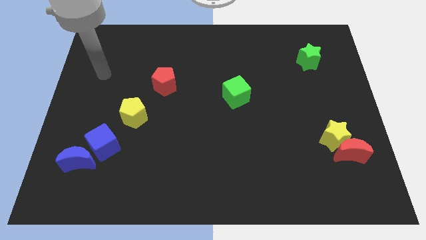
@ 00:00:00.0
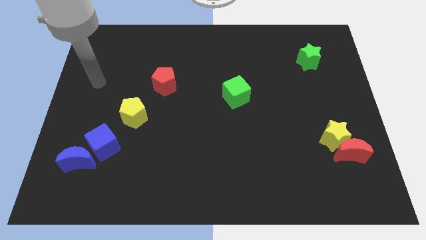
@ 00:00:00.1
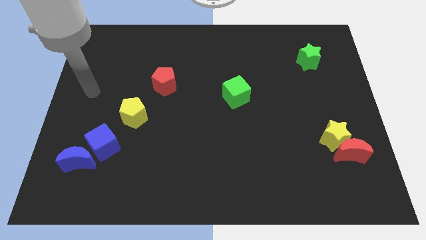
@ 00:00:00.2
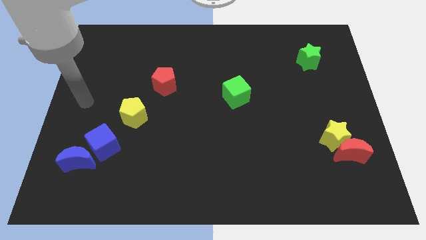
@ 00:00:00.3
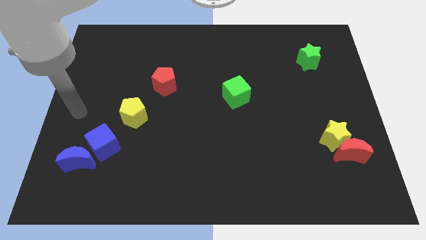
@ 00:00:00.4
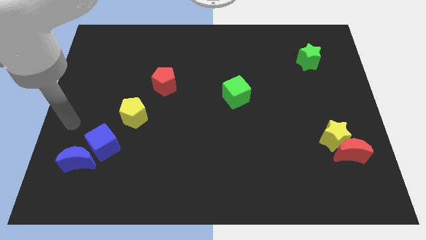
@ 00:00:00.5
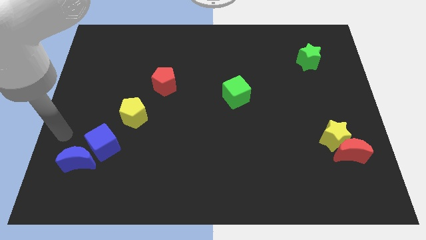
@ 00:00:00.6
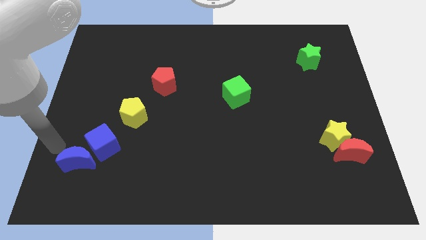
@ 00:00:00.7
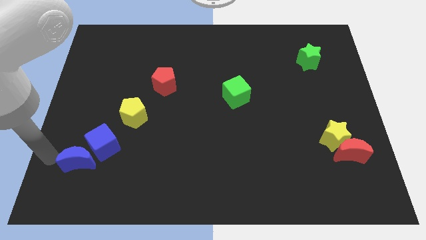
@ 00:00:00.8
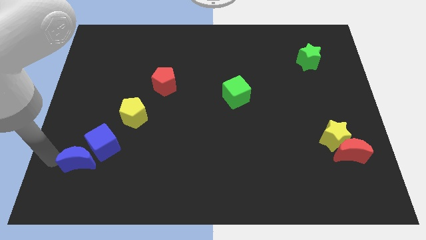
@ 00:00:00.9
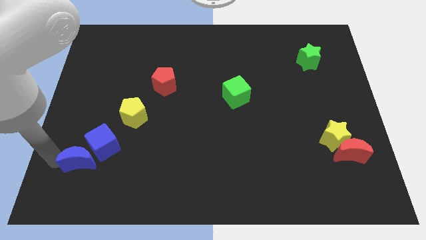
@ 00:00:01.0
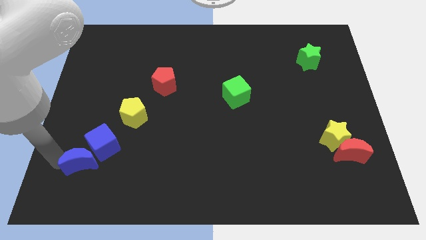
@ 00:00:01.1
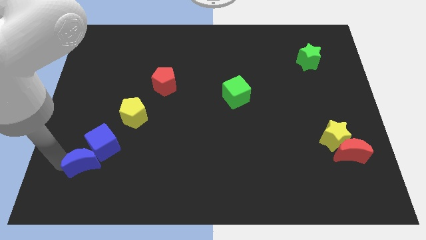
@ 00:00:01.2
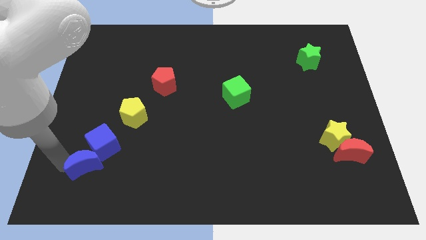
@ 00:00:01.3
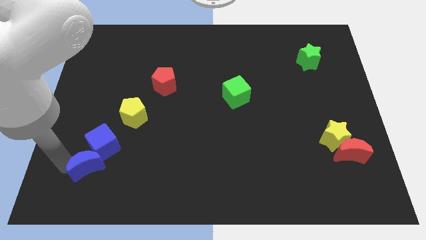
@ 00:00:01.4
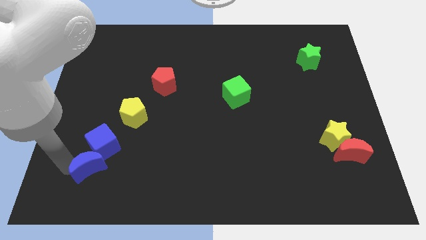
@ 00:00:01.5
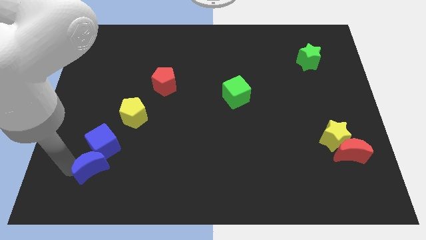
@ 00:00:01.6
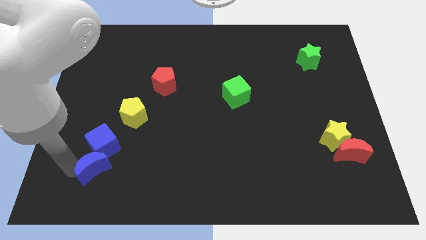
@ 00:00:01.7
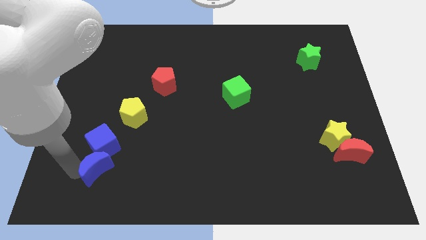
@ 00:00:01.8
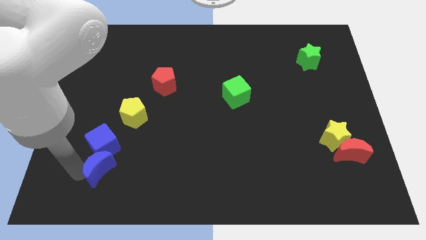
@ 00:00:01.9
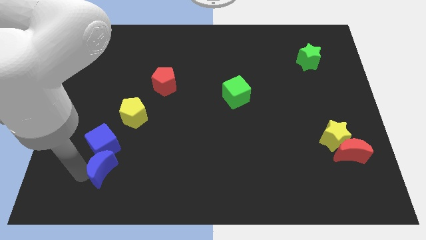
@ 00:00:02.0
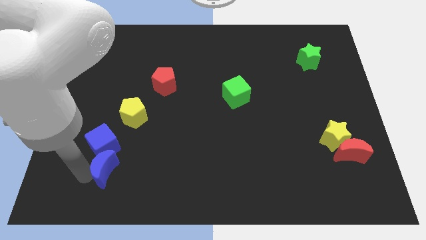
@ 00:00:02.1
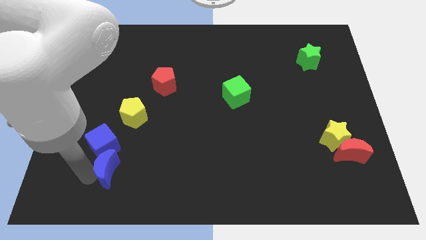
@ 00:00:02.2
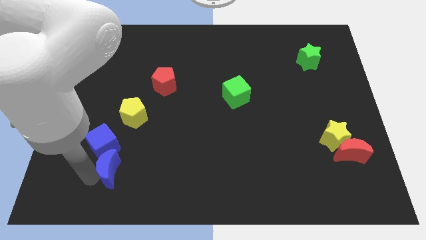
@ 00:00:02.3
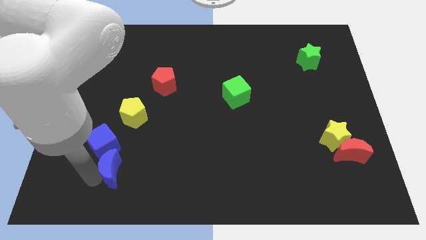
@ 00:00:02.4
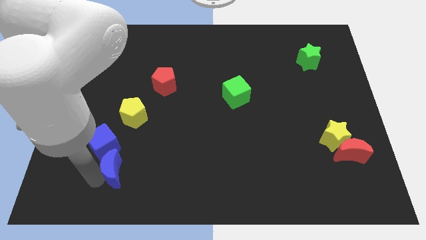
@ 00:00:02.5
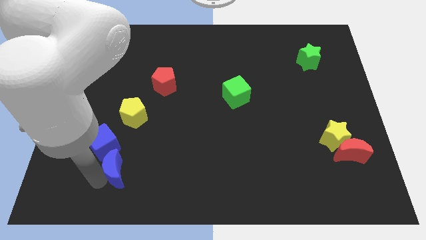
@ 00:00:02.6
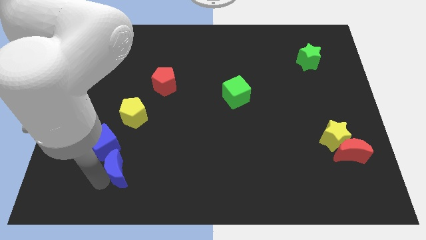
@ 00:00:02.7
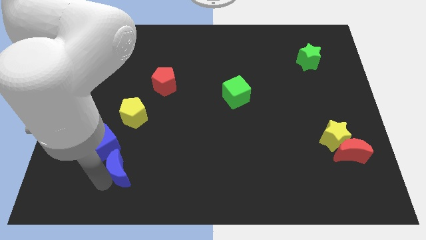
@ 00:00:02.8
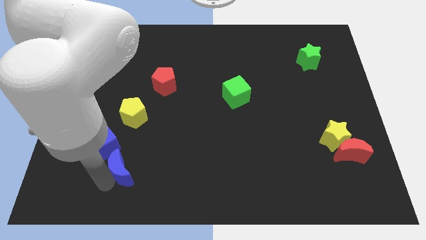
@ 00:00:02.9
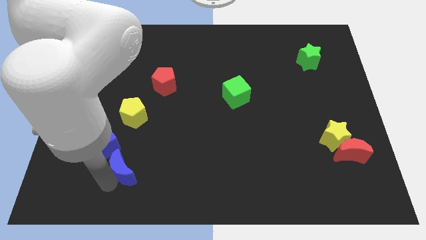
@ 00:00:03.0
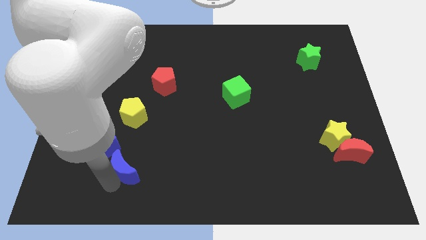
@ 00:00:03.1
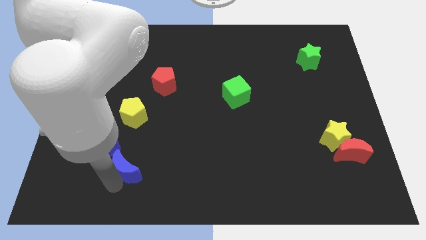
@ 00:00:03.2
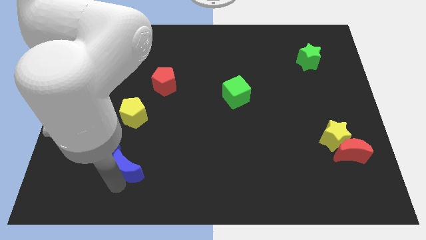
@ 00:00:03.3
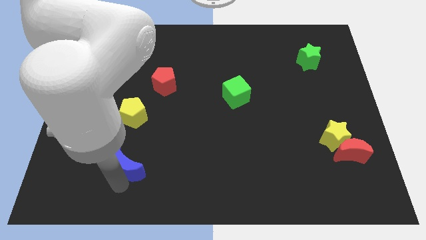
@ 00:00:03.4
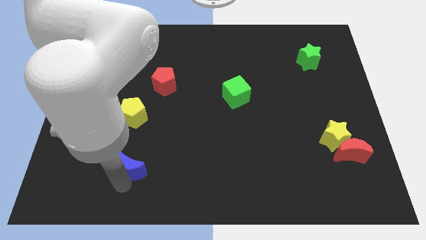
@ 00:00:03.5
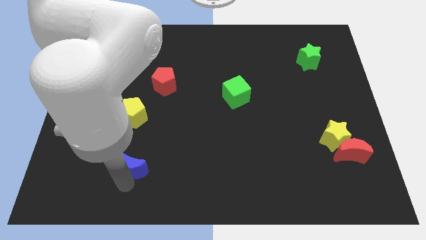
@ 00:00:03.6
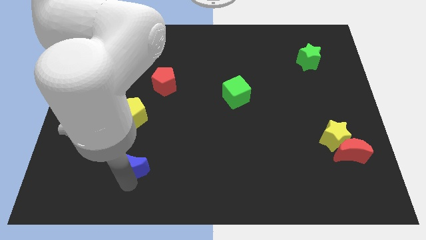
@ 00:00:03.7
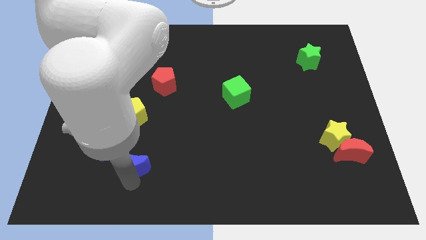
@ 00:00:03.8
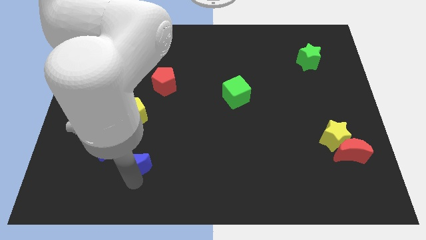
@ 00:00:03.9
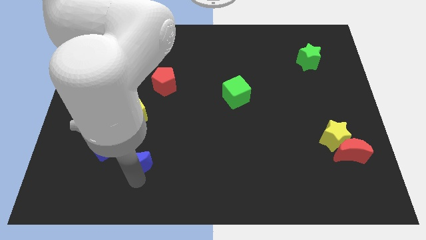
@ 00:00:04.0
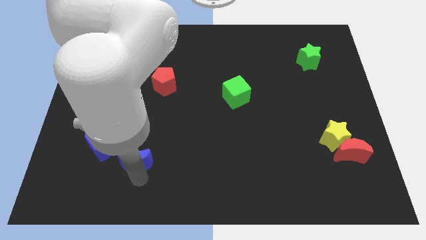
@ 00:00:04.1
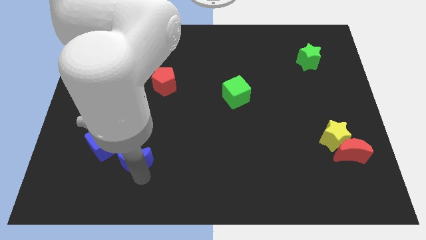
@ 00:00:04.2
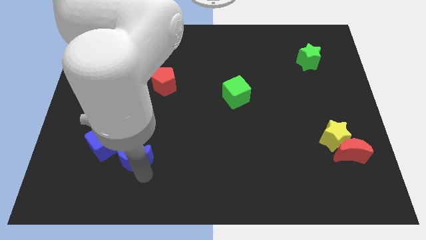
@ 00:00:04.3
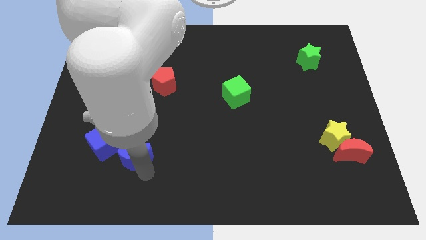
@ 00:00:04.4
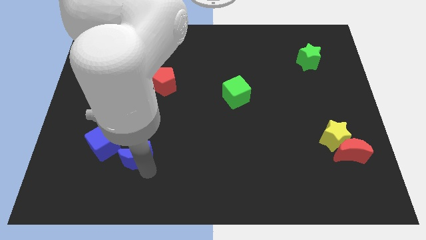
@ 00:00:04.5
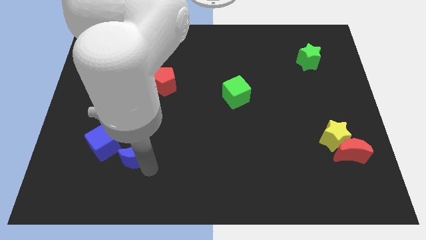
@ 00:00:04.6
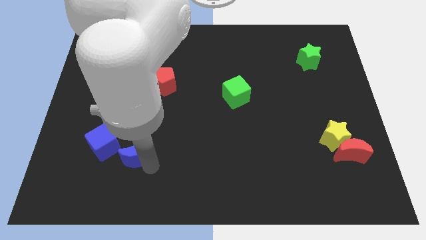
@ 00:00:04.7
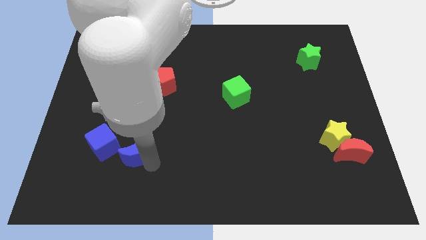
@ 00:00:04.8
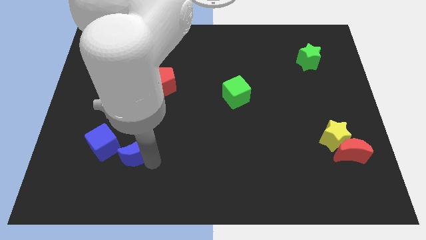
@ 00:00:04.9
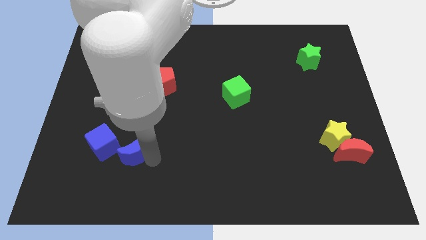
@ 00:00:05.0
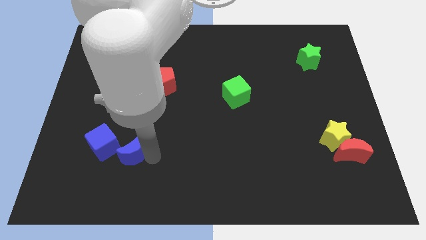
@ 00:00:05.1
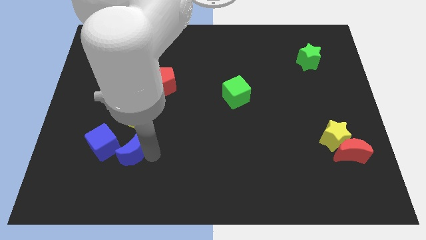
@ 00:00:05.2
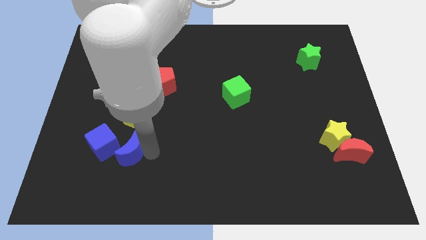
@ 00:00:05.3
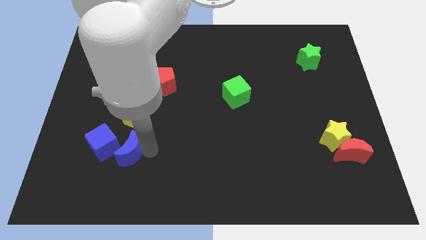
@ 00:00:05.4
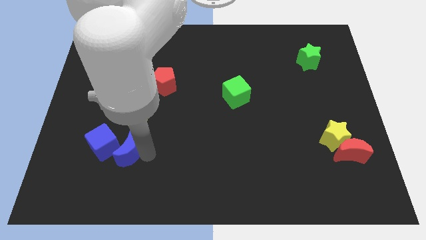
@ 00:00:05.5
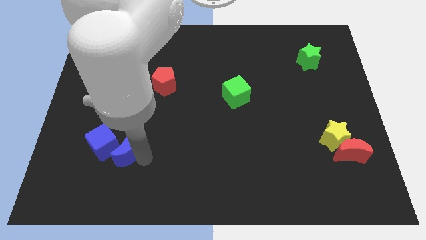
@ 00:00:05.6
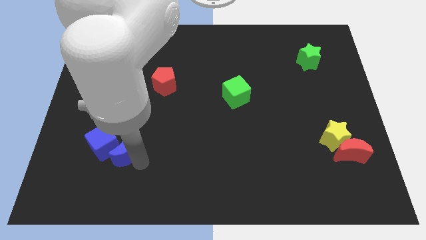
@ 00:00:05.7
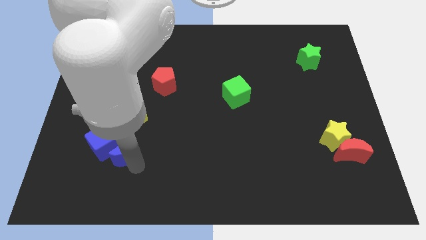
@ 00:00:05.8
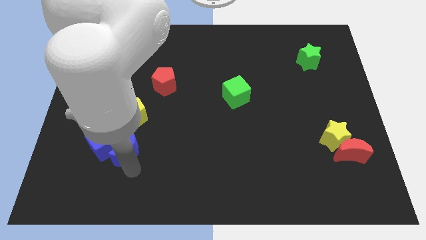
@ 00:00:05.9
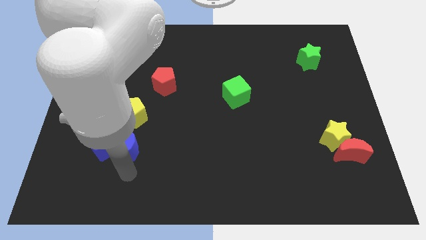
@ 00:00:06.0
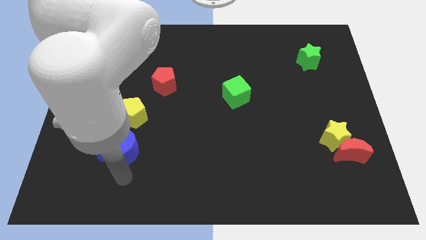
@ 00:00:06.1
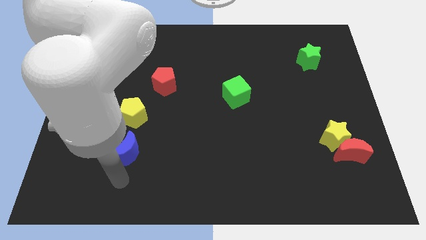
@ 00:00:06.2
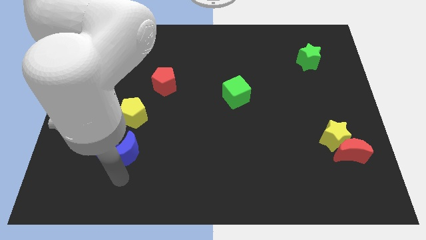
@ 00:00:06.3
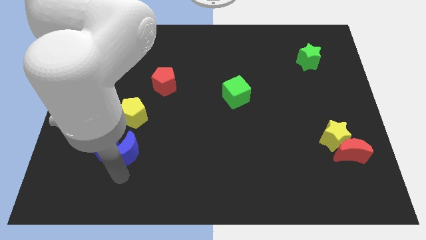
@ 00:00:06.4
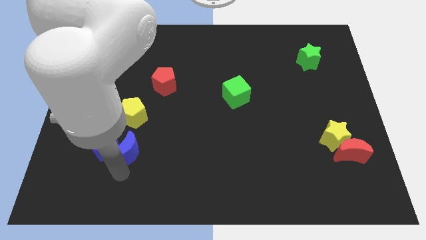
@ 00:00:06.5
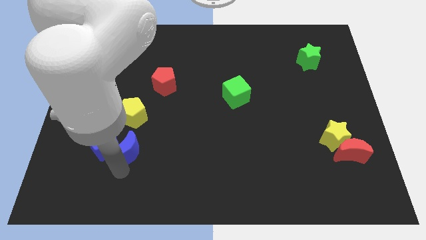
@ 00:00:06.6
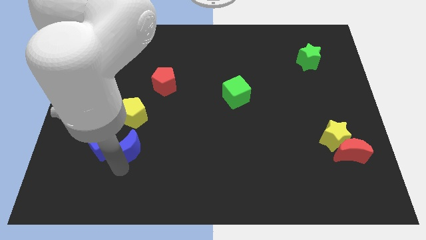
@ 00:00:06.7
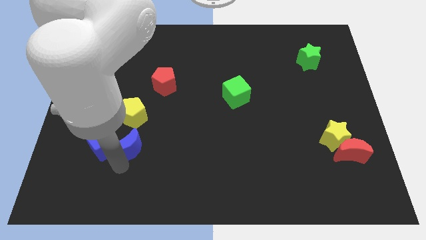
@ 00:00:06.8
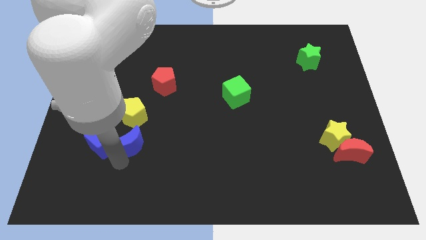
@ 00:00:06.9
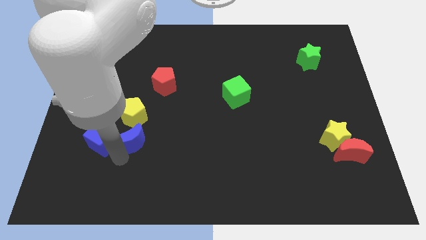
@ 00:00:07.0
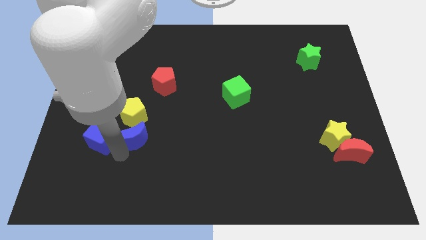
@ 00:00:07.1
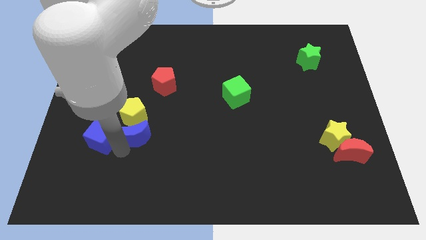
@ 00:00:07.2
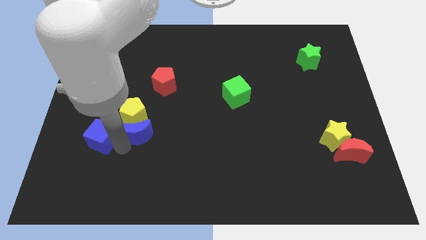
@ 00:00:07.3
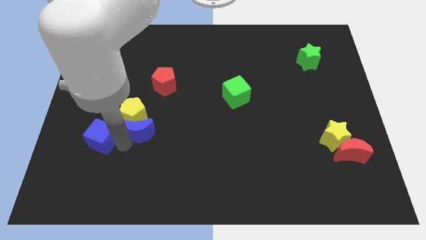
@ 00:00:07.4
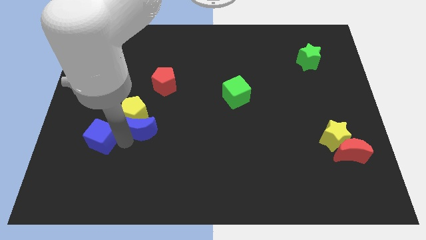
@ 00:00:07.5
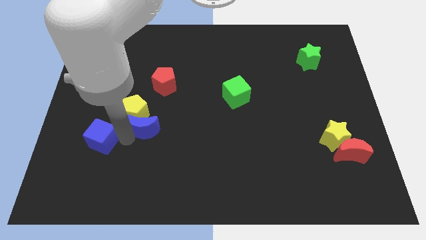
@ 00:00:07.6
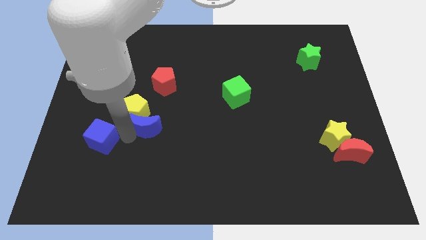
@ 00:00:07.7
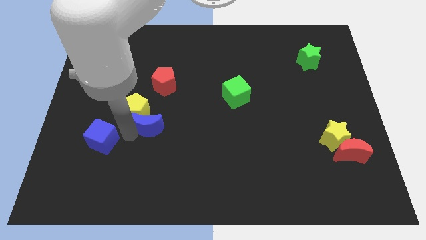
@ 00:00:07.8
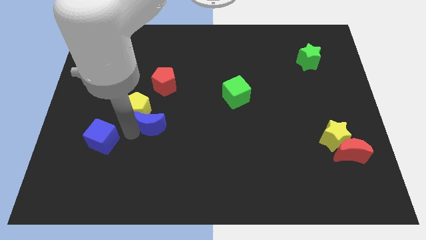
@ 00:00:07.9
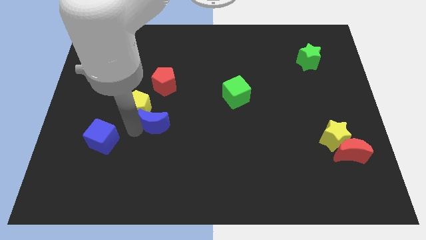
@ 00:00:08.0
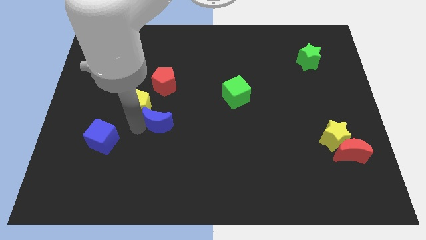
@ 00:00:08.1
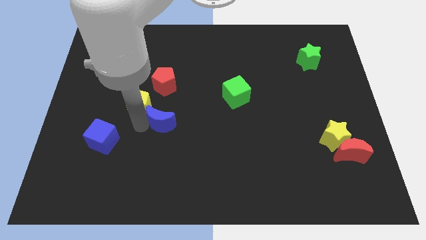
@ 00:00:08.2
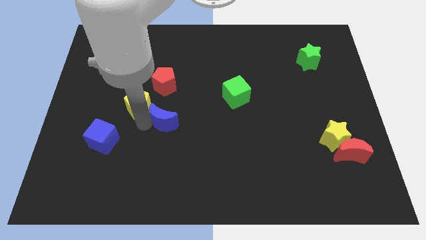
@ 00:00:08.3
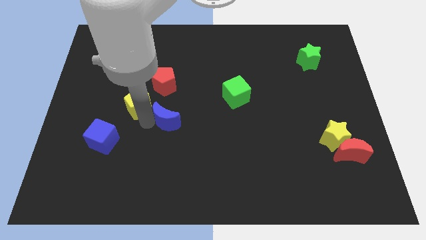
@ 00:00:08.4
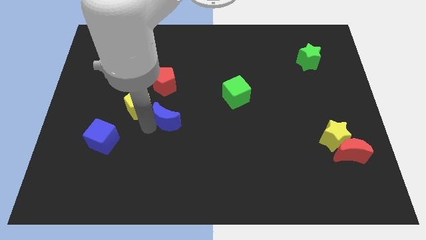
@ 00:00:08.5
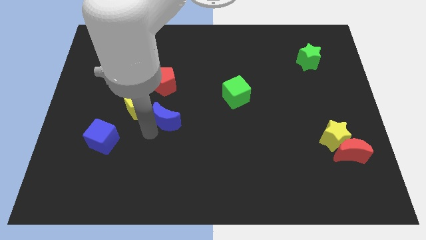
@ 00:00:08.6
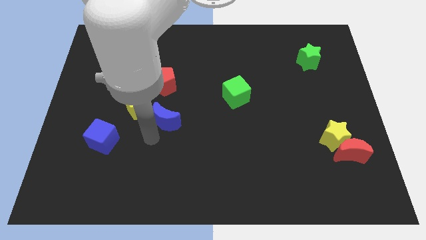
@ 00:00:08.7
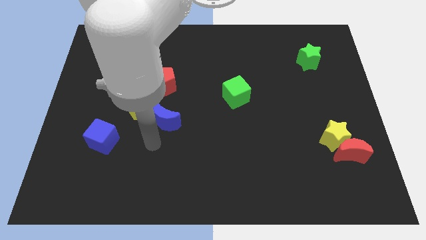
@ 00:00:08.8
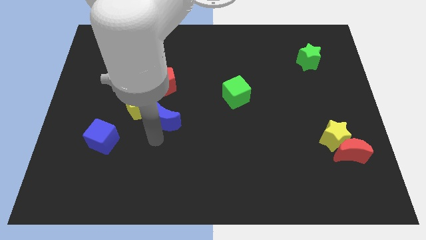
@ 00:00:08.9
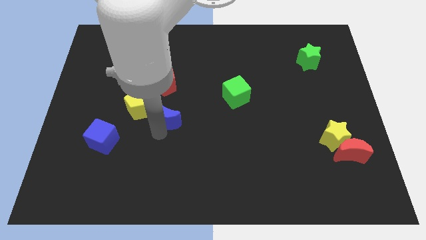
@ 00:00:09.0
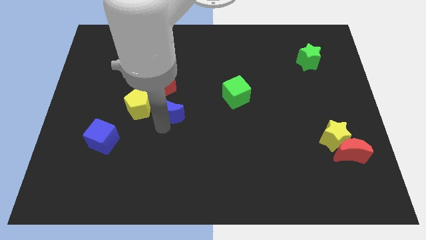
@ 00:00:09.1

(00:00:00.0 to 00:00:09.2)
move the blue moon upwards and to the right
